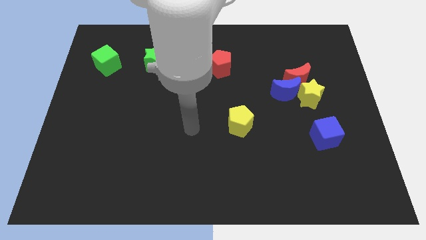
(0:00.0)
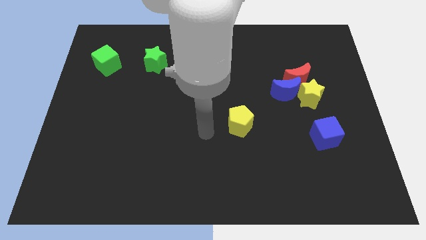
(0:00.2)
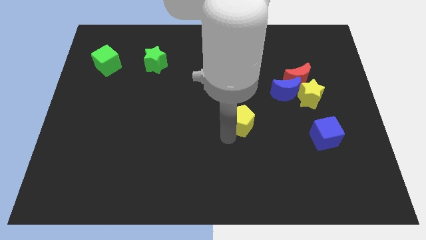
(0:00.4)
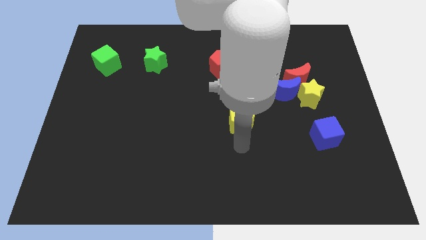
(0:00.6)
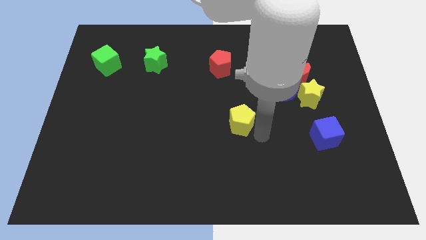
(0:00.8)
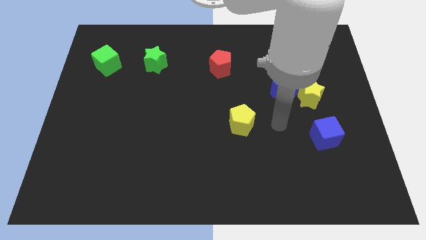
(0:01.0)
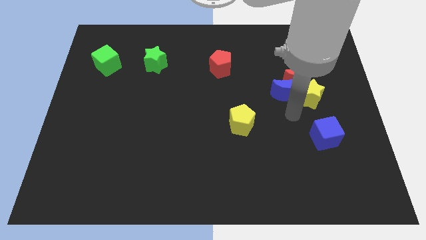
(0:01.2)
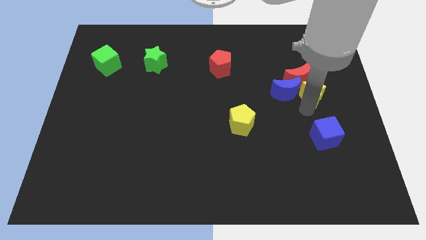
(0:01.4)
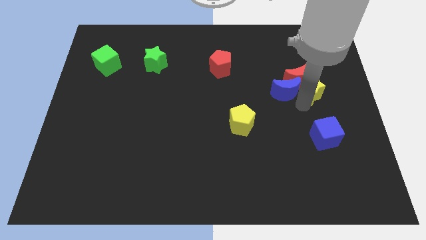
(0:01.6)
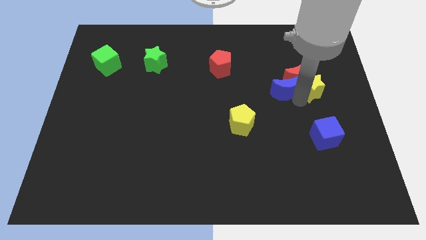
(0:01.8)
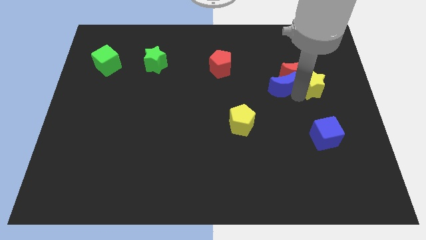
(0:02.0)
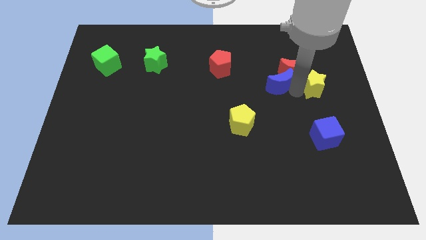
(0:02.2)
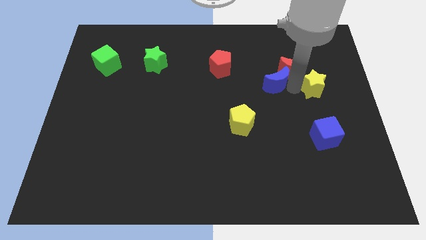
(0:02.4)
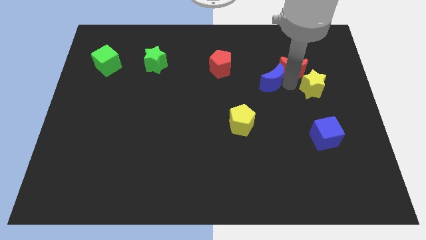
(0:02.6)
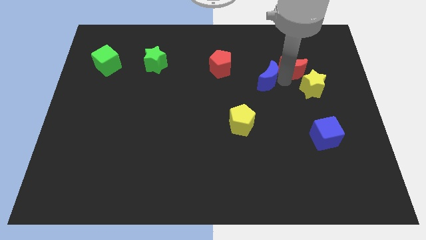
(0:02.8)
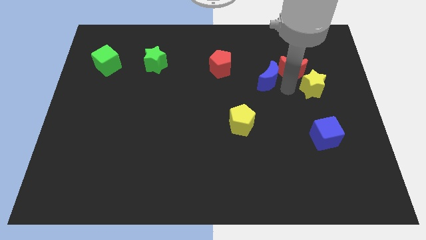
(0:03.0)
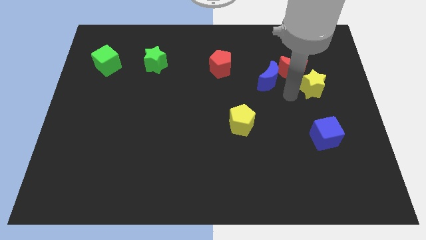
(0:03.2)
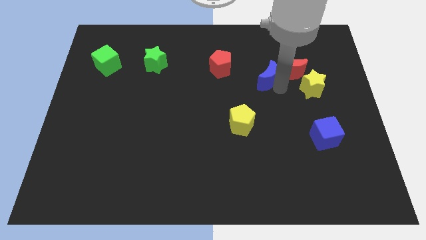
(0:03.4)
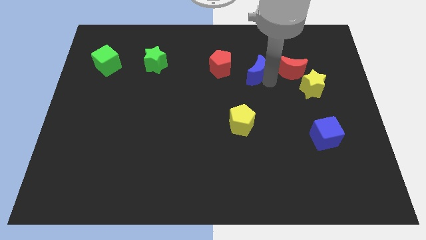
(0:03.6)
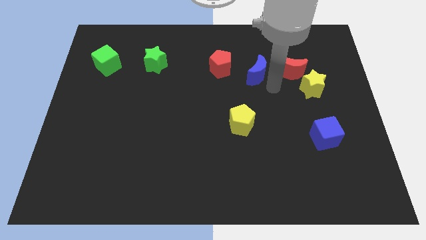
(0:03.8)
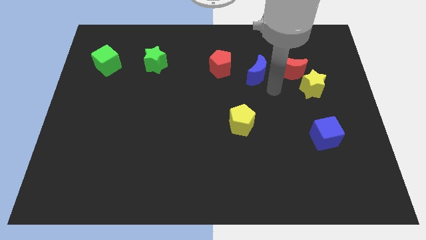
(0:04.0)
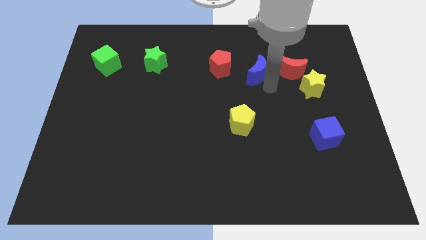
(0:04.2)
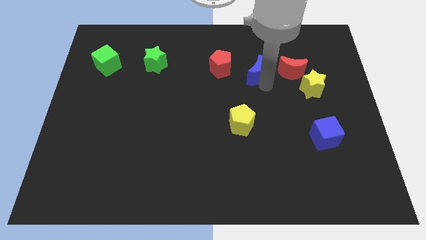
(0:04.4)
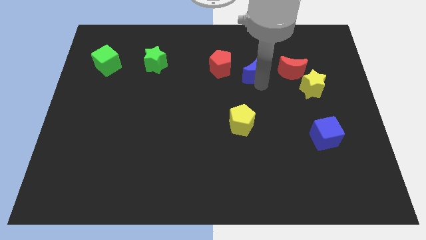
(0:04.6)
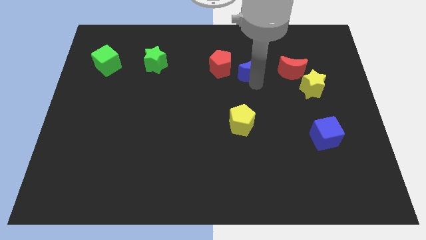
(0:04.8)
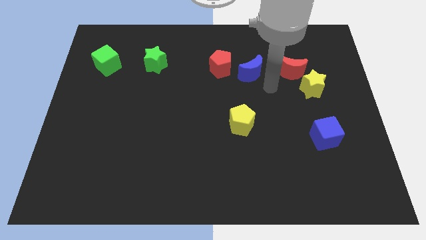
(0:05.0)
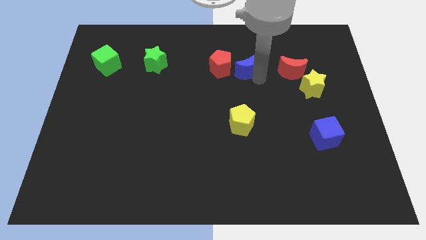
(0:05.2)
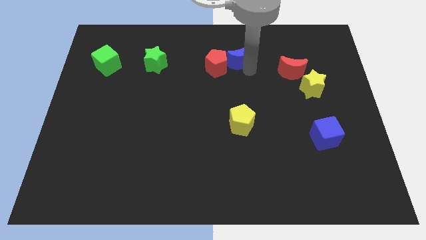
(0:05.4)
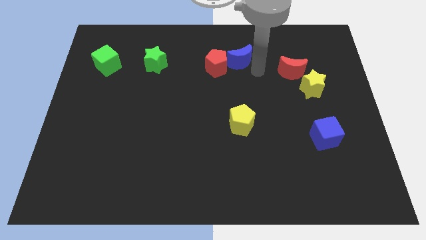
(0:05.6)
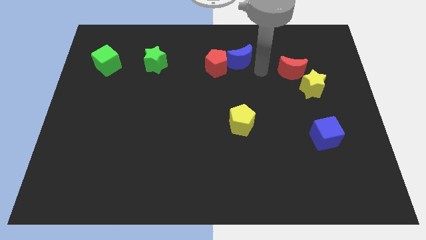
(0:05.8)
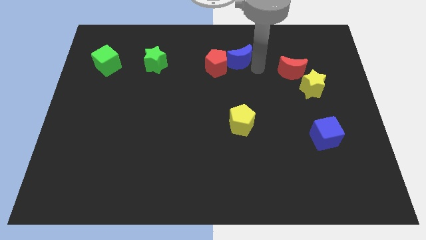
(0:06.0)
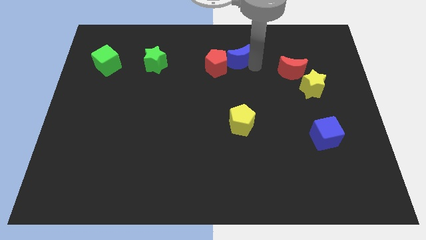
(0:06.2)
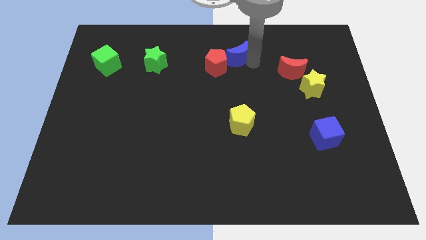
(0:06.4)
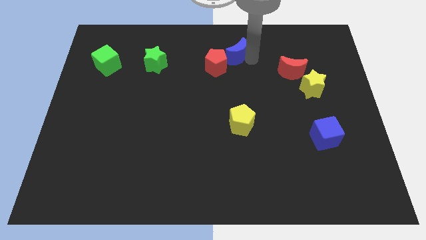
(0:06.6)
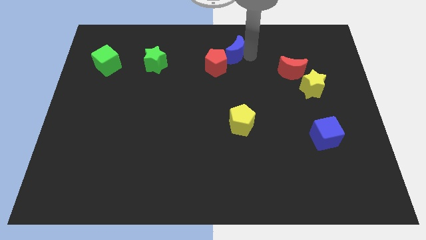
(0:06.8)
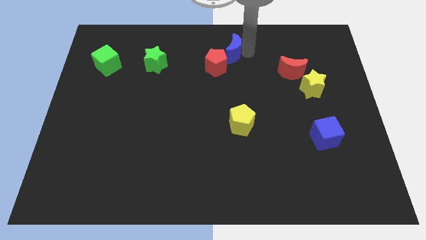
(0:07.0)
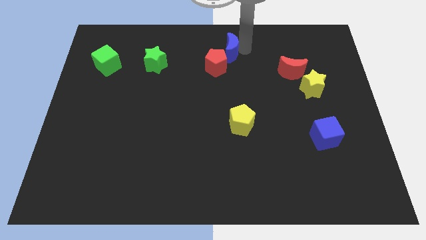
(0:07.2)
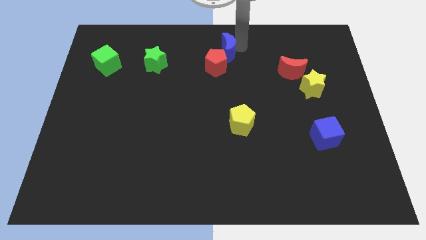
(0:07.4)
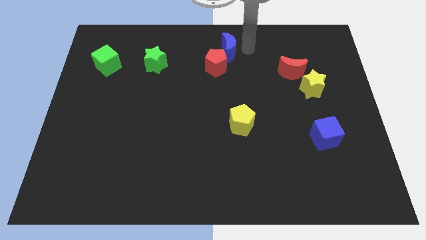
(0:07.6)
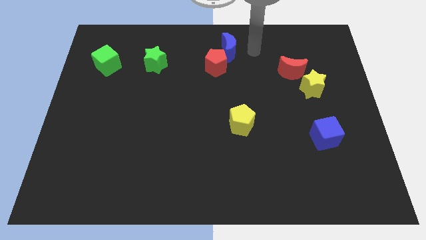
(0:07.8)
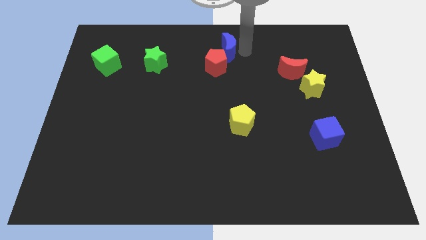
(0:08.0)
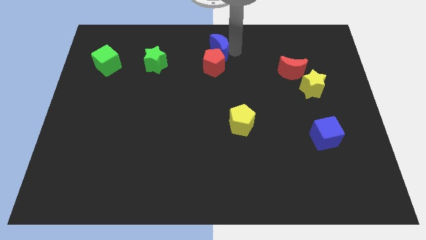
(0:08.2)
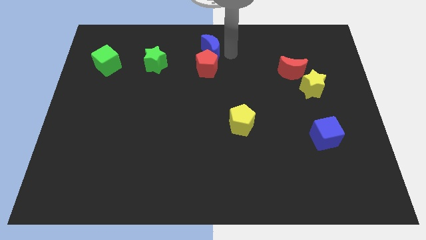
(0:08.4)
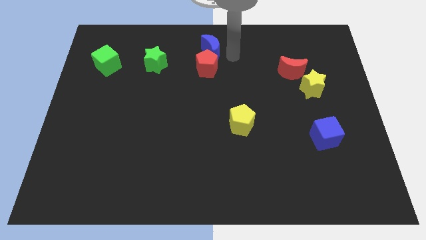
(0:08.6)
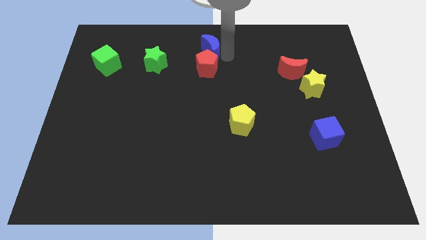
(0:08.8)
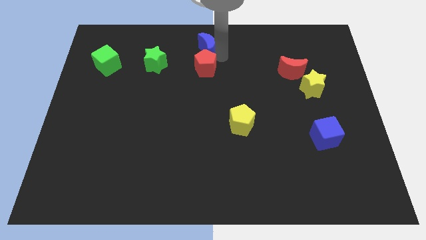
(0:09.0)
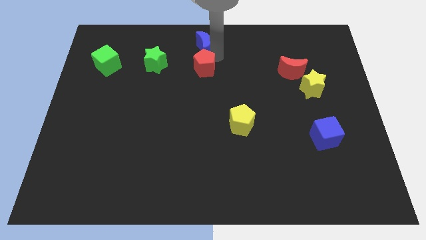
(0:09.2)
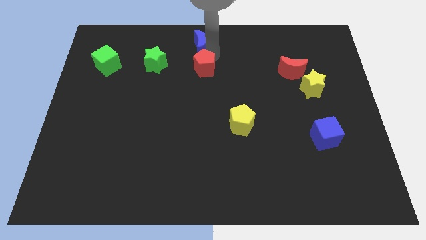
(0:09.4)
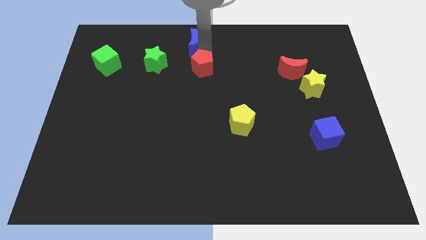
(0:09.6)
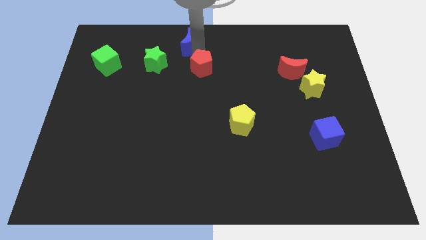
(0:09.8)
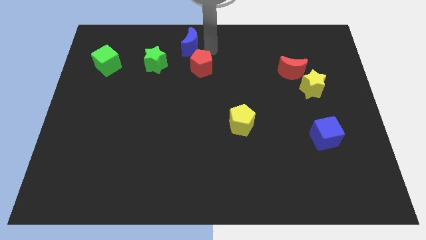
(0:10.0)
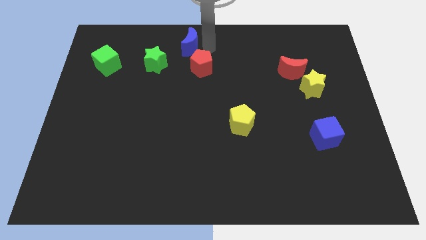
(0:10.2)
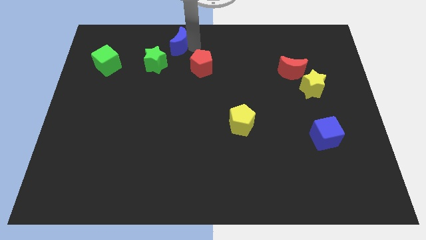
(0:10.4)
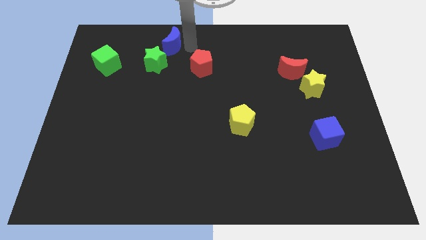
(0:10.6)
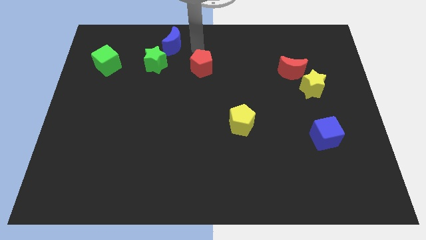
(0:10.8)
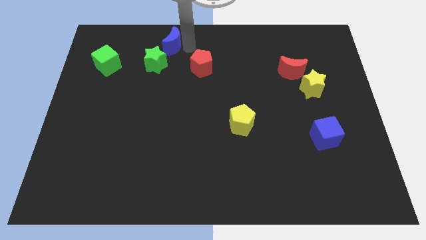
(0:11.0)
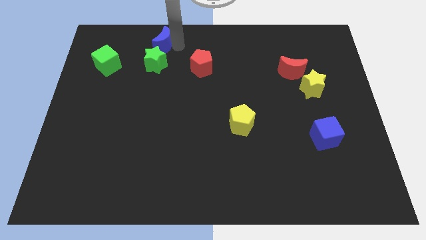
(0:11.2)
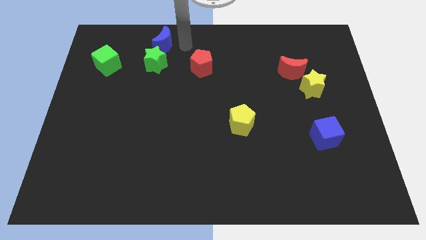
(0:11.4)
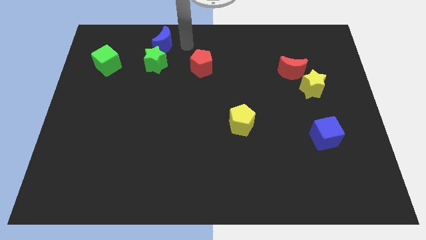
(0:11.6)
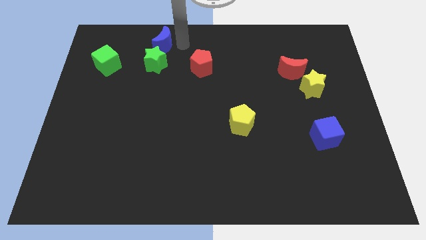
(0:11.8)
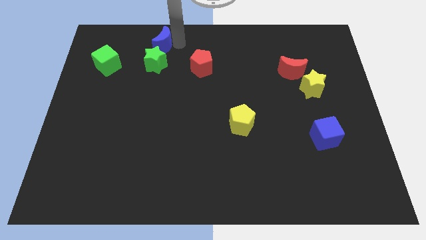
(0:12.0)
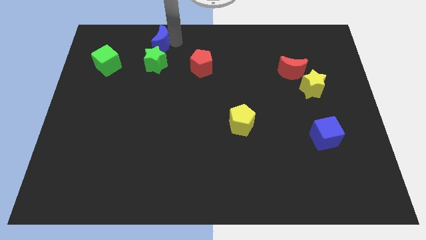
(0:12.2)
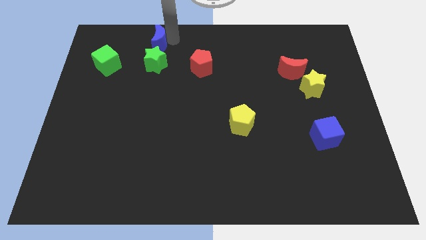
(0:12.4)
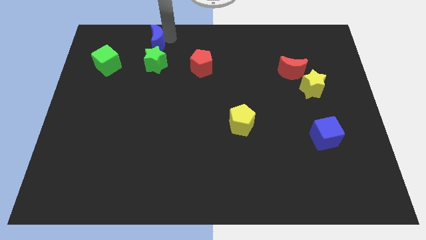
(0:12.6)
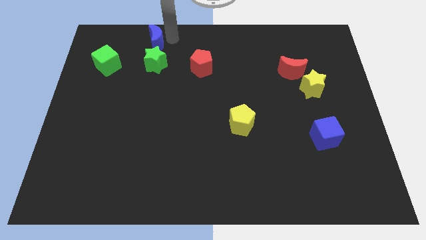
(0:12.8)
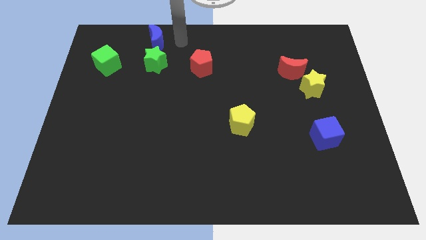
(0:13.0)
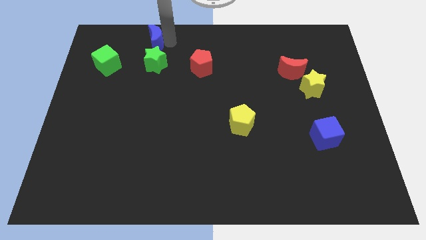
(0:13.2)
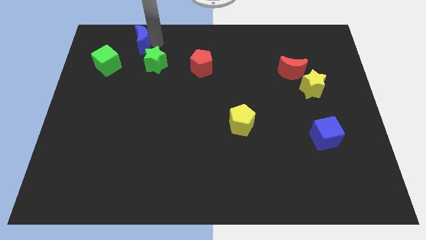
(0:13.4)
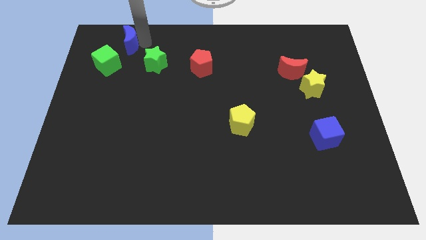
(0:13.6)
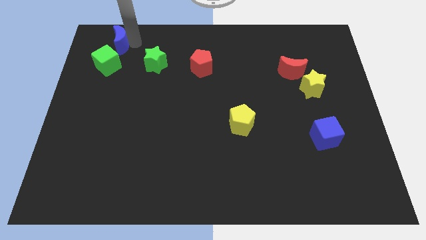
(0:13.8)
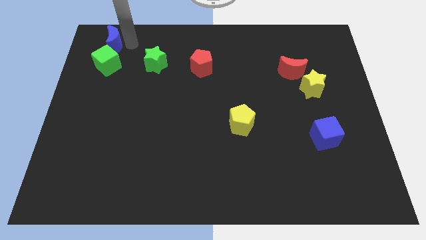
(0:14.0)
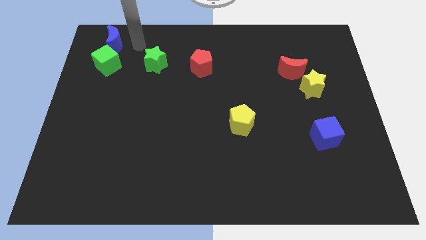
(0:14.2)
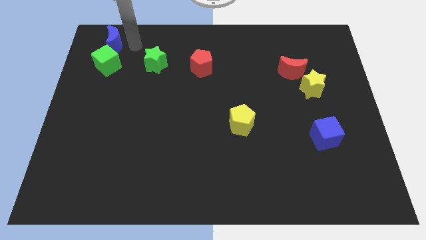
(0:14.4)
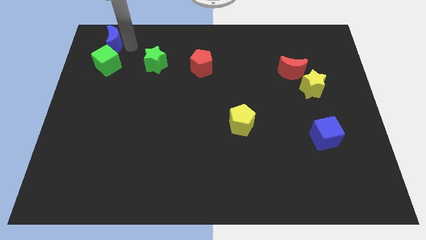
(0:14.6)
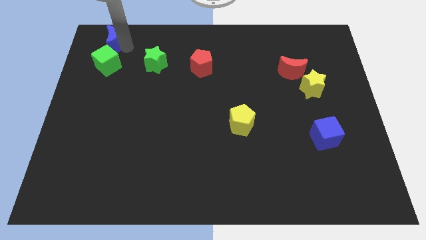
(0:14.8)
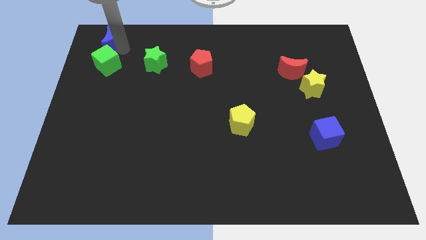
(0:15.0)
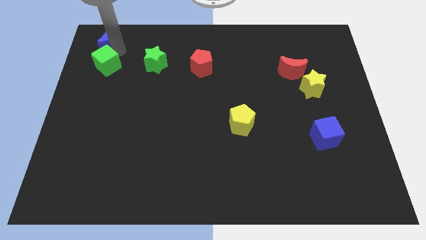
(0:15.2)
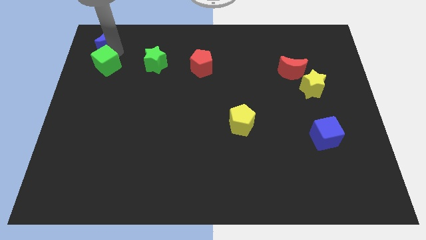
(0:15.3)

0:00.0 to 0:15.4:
slide the blue moon to the top left

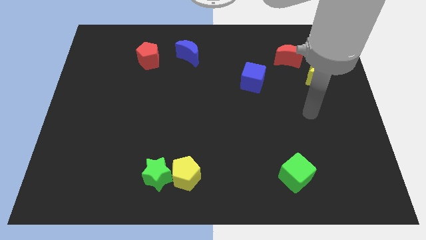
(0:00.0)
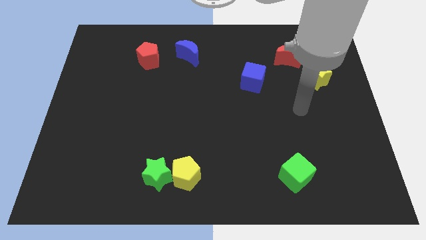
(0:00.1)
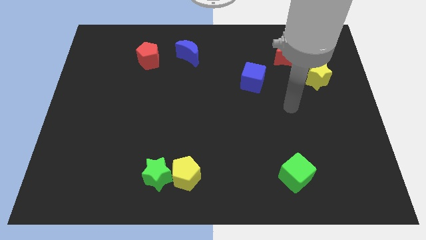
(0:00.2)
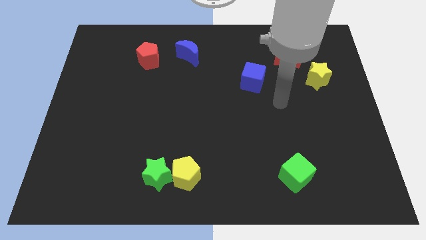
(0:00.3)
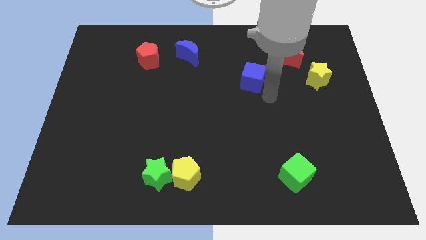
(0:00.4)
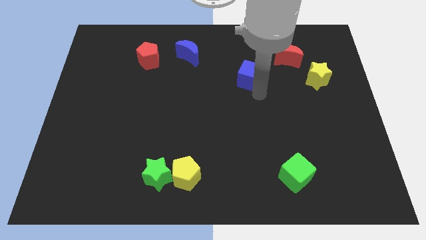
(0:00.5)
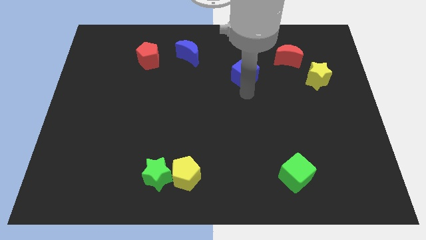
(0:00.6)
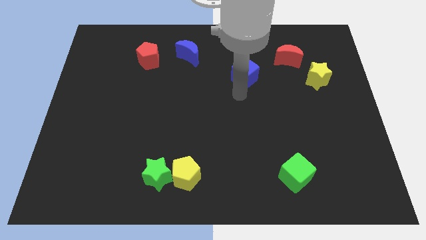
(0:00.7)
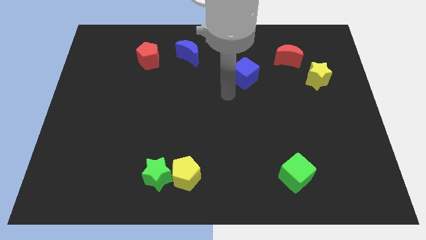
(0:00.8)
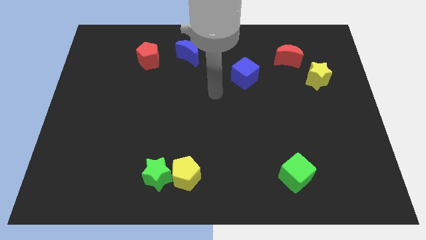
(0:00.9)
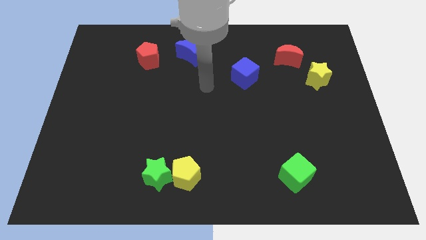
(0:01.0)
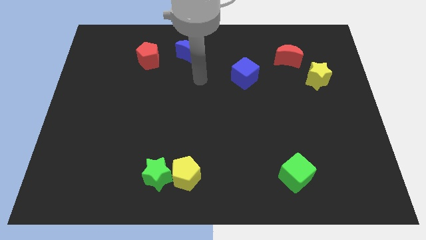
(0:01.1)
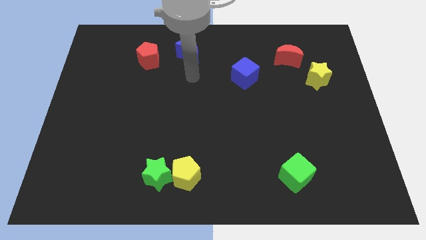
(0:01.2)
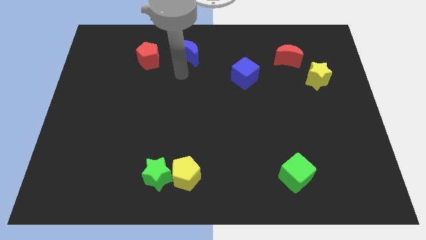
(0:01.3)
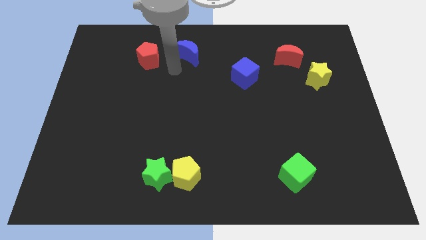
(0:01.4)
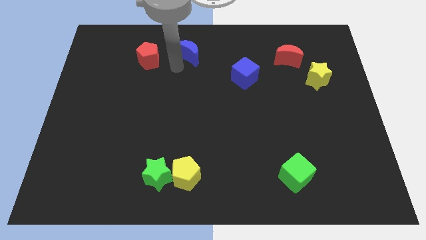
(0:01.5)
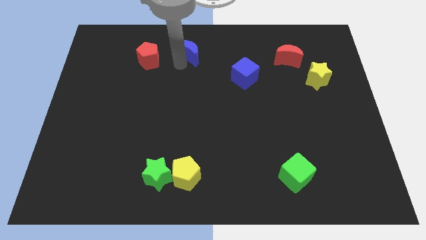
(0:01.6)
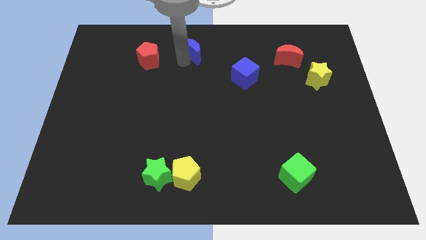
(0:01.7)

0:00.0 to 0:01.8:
slide the blue moon to the towards your base
